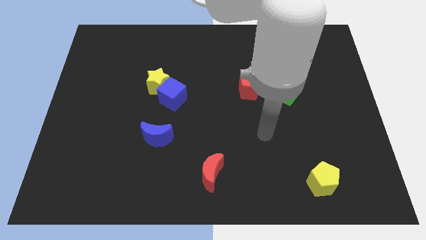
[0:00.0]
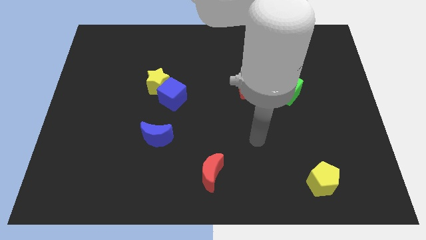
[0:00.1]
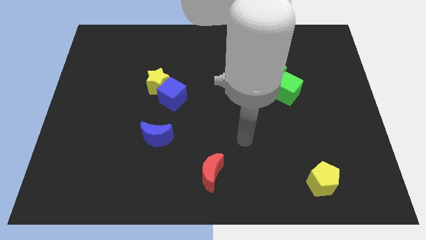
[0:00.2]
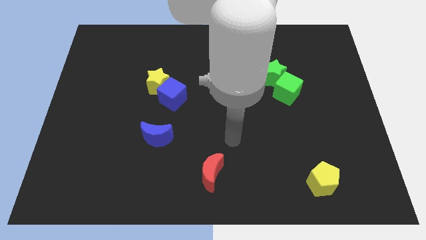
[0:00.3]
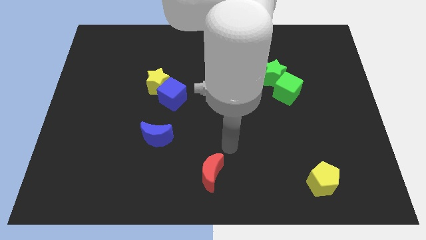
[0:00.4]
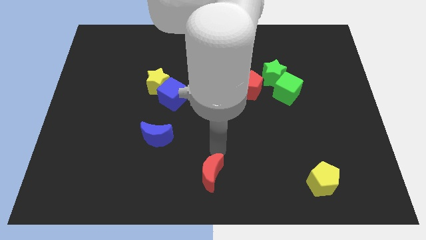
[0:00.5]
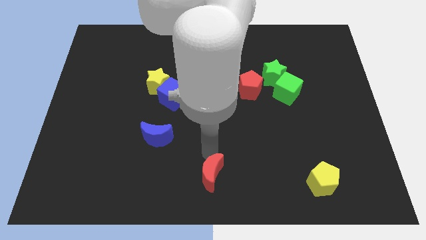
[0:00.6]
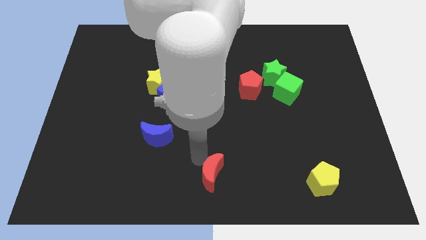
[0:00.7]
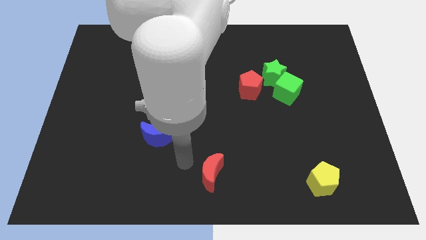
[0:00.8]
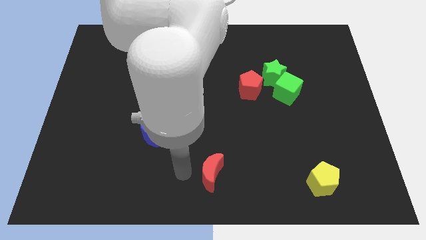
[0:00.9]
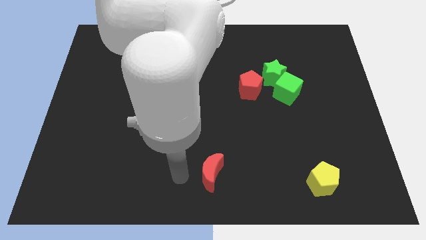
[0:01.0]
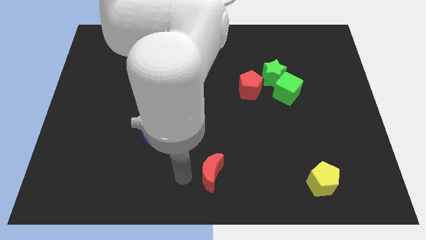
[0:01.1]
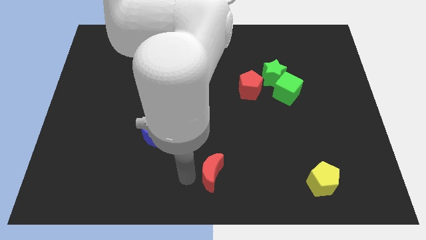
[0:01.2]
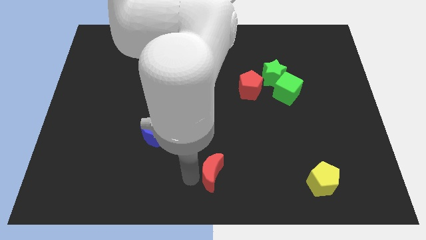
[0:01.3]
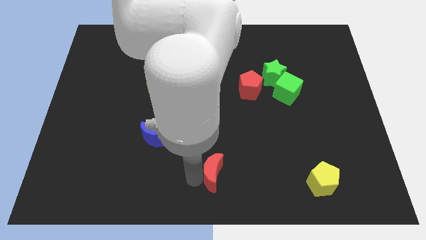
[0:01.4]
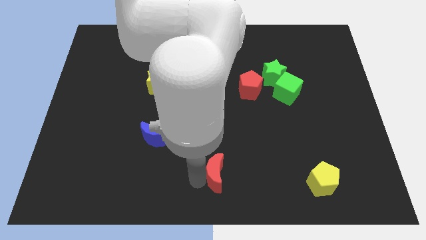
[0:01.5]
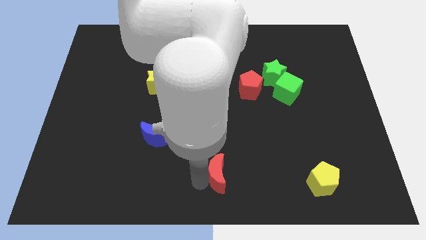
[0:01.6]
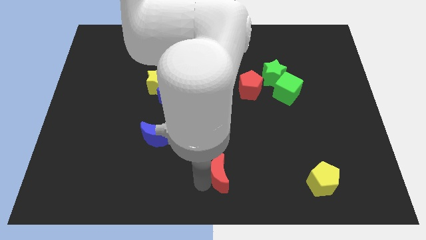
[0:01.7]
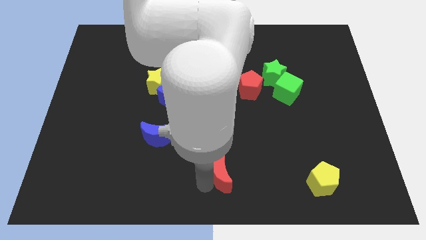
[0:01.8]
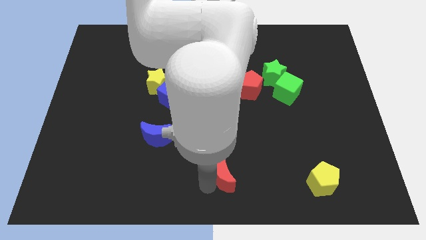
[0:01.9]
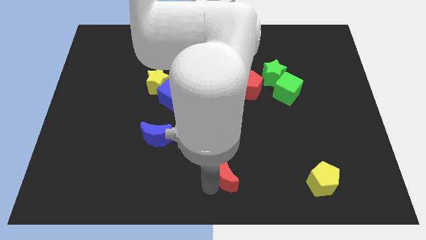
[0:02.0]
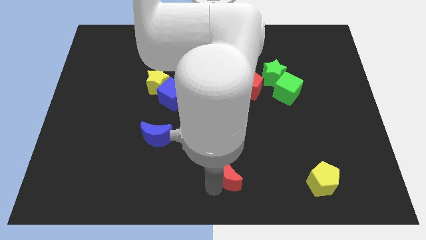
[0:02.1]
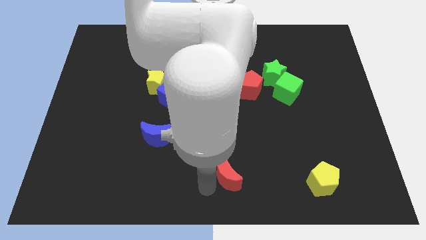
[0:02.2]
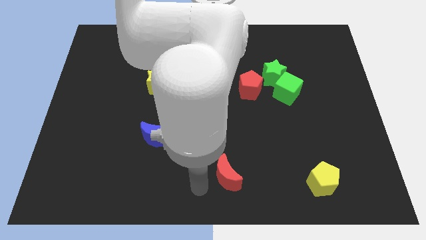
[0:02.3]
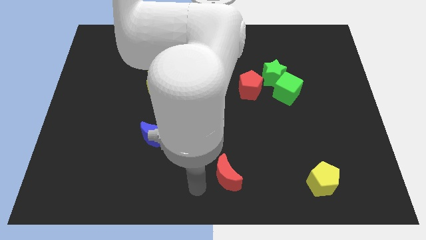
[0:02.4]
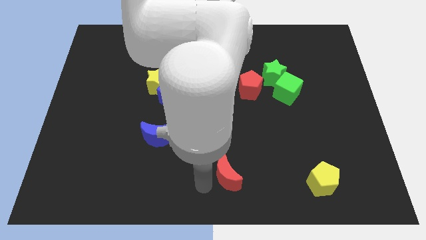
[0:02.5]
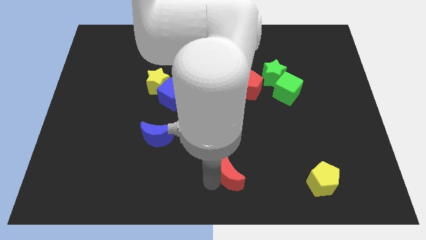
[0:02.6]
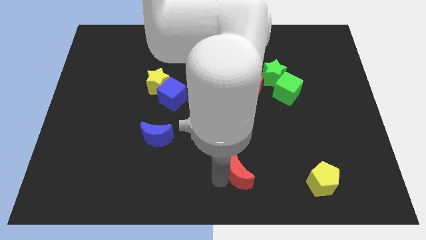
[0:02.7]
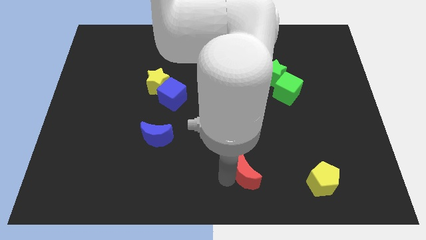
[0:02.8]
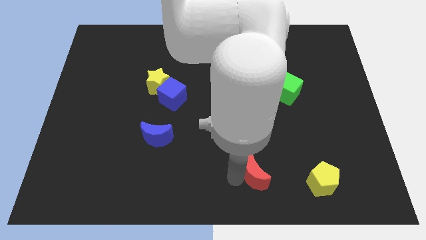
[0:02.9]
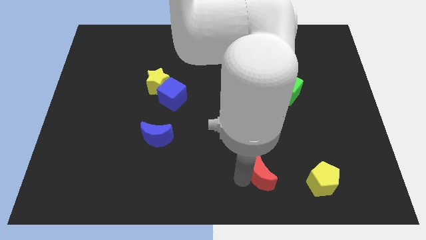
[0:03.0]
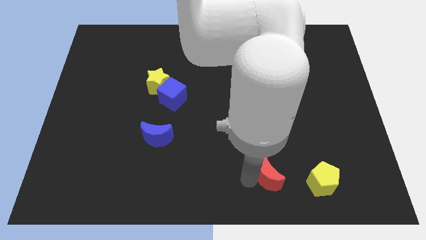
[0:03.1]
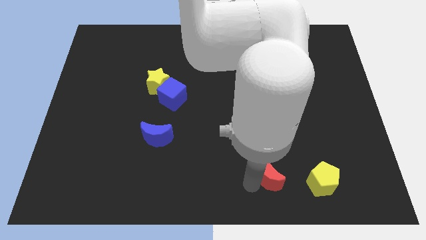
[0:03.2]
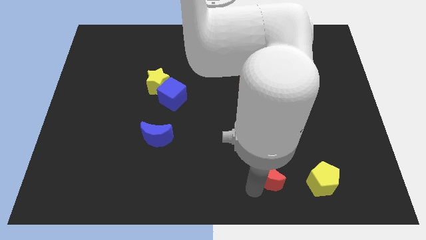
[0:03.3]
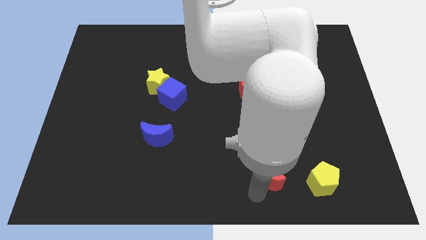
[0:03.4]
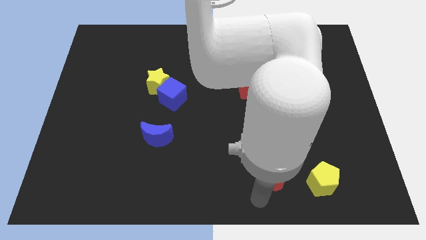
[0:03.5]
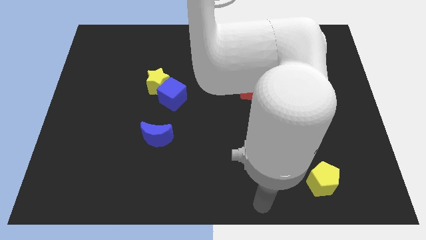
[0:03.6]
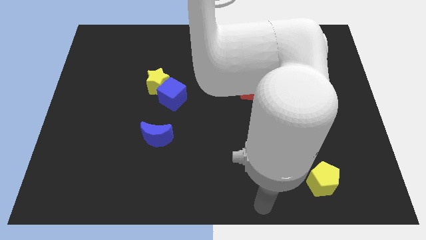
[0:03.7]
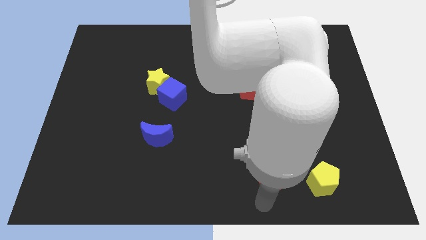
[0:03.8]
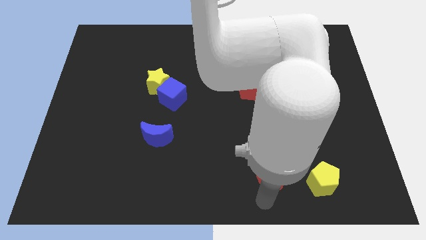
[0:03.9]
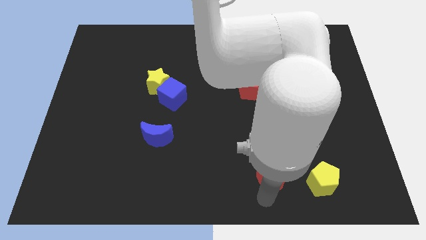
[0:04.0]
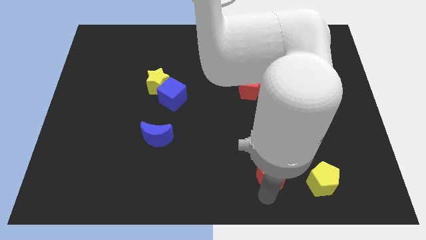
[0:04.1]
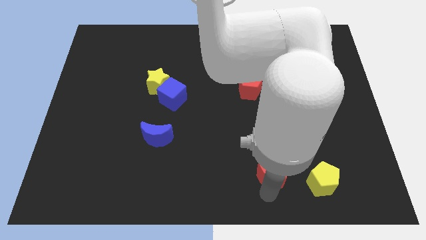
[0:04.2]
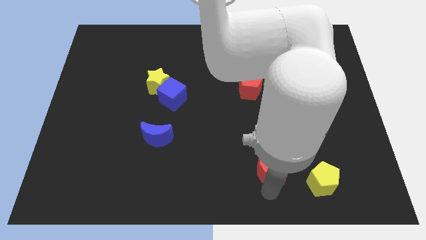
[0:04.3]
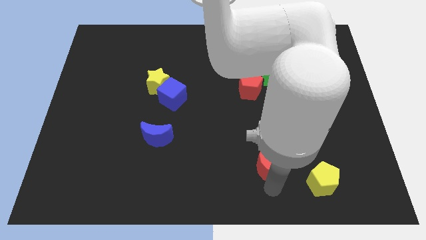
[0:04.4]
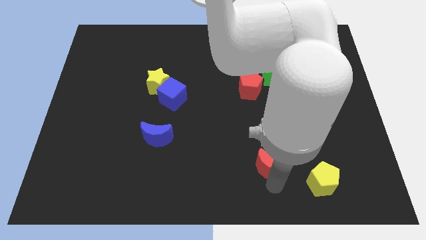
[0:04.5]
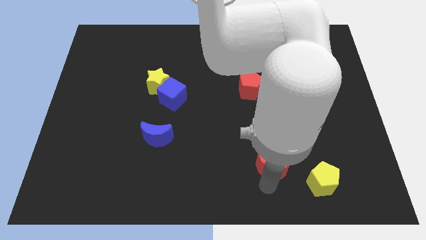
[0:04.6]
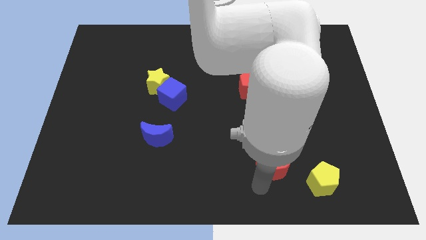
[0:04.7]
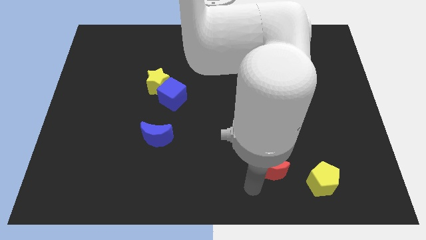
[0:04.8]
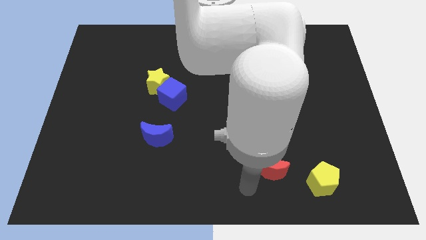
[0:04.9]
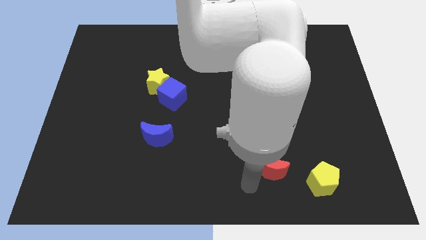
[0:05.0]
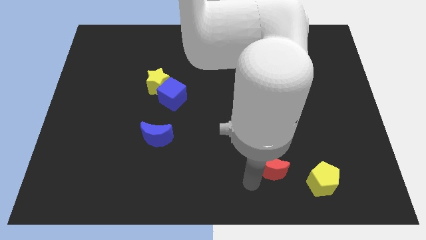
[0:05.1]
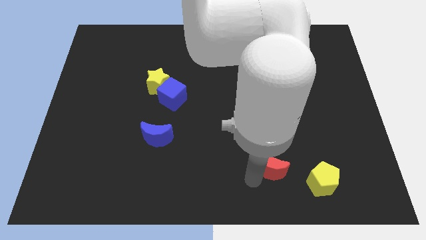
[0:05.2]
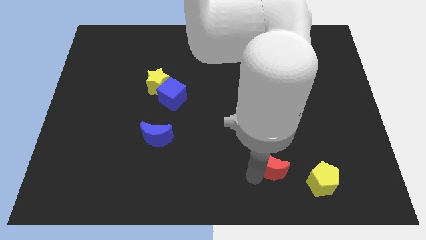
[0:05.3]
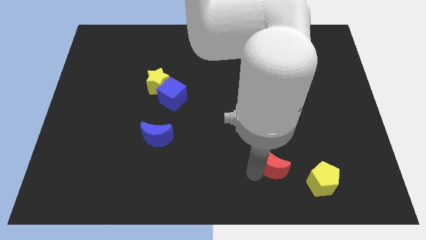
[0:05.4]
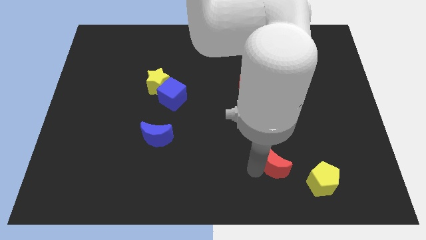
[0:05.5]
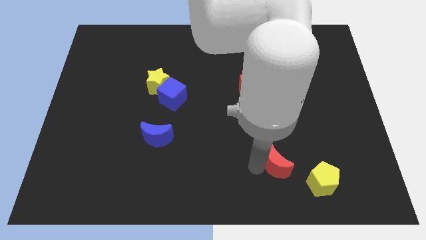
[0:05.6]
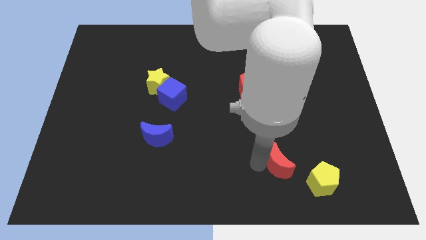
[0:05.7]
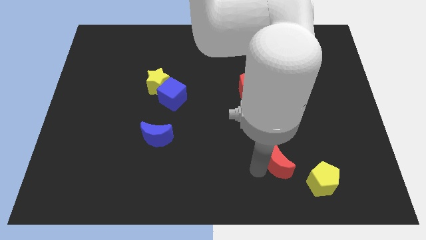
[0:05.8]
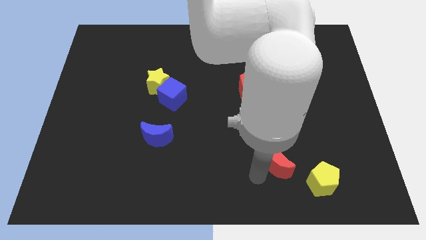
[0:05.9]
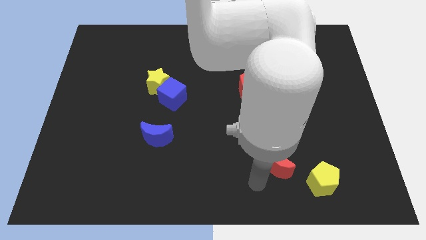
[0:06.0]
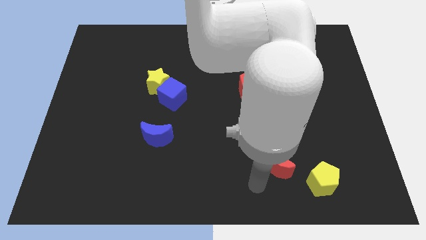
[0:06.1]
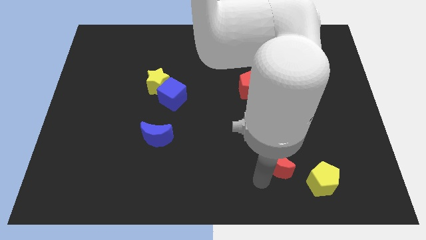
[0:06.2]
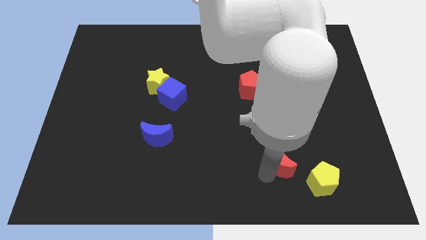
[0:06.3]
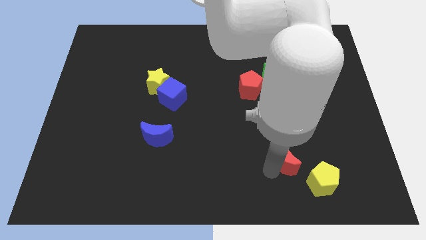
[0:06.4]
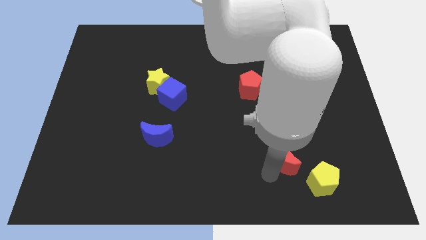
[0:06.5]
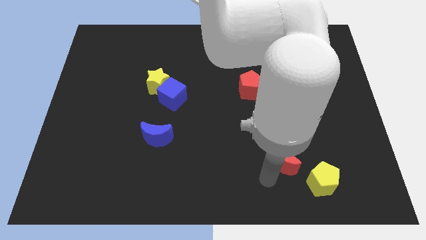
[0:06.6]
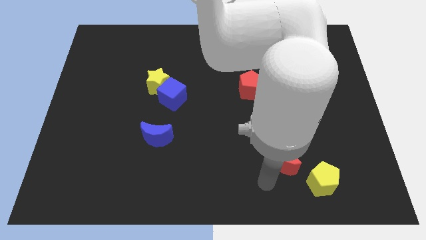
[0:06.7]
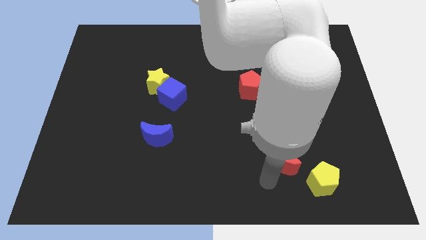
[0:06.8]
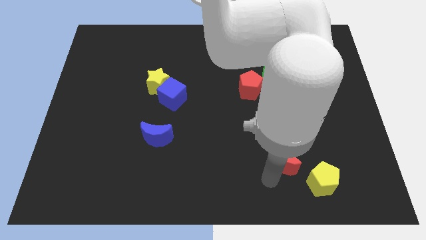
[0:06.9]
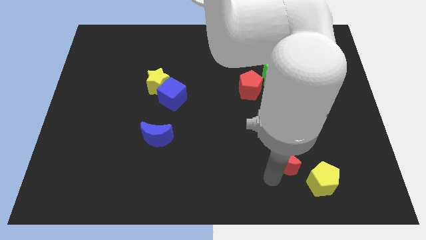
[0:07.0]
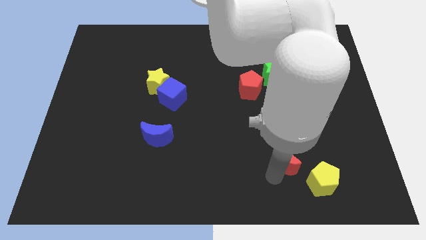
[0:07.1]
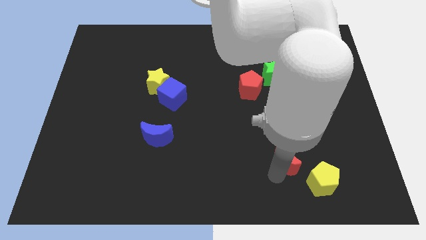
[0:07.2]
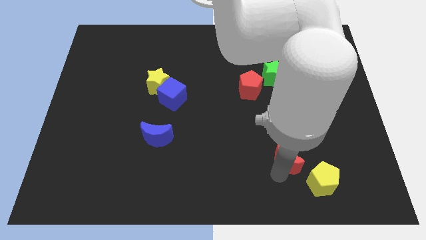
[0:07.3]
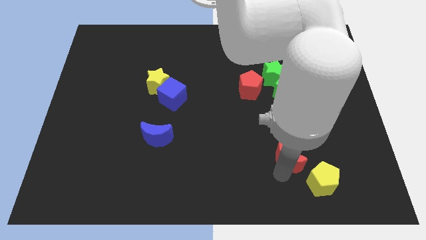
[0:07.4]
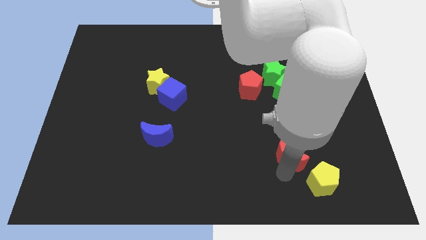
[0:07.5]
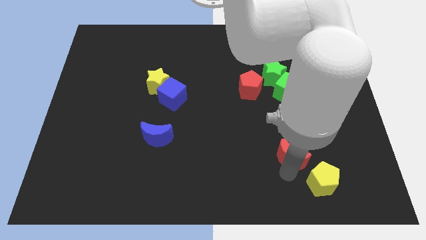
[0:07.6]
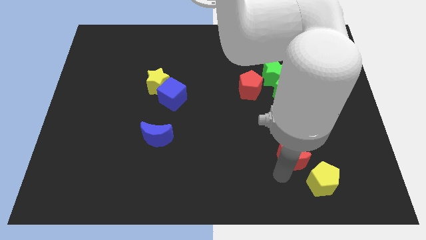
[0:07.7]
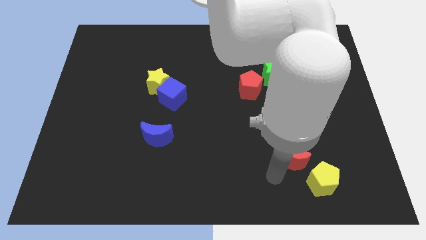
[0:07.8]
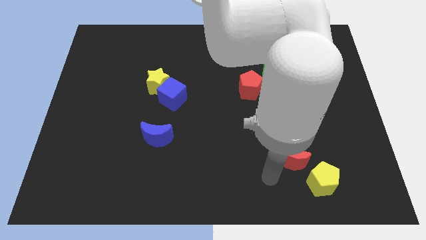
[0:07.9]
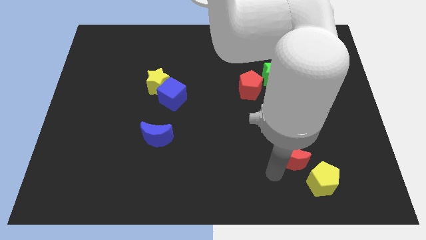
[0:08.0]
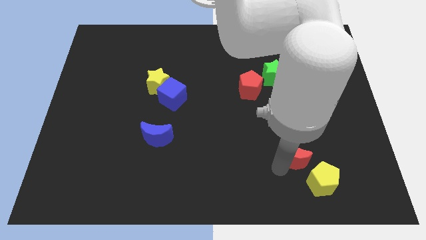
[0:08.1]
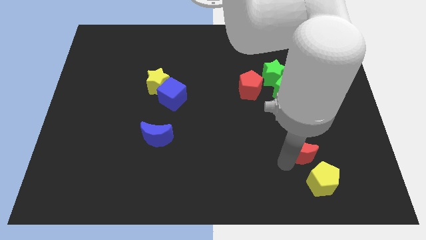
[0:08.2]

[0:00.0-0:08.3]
slide the red moon to the top side of the yellow pentagon

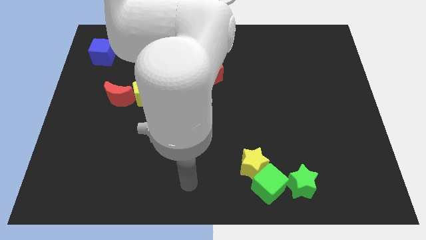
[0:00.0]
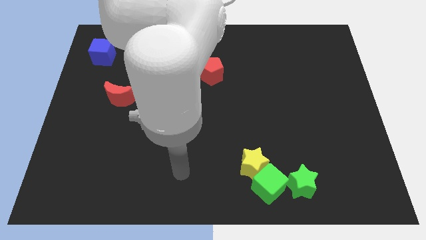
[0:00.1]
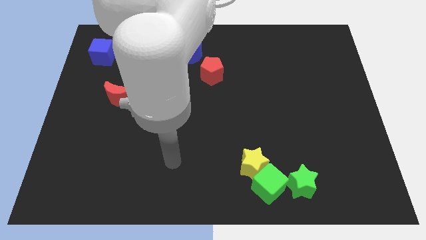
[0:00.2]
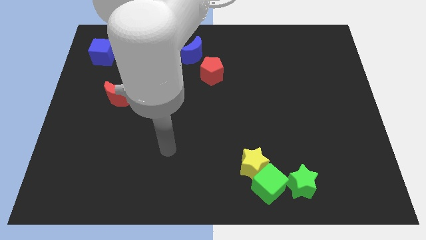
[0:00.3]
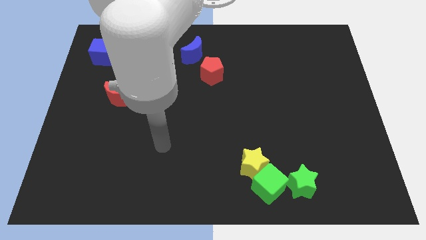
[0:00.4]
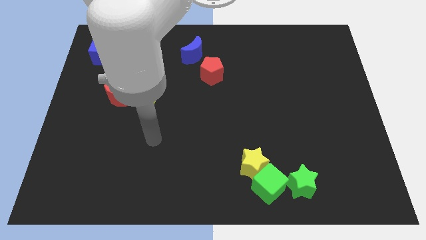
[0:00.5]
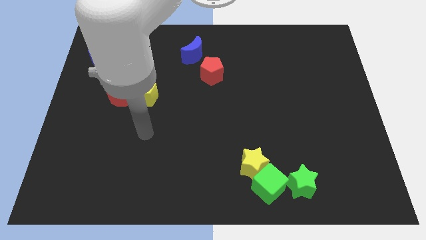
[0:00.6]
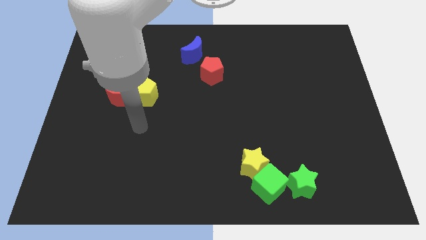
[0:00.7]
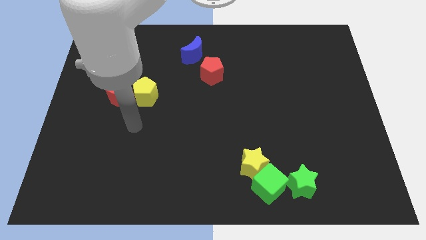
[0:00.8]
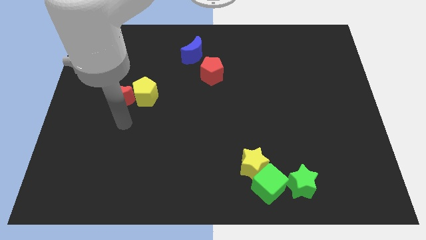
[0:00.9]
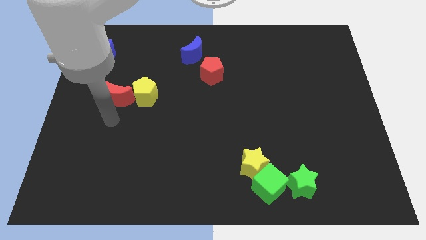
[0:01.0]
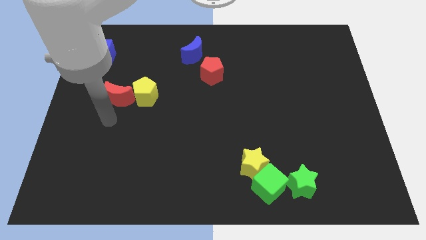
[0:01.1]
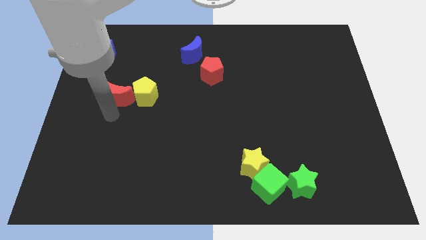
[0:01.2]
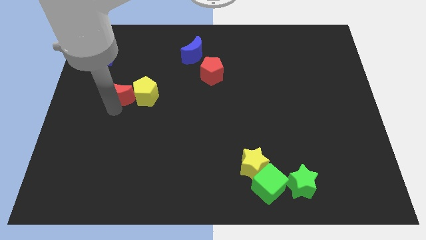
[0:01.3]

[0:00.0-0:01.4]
move the red moon diagonally up and to the left of the yellow pentagon
